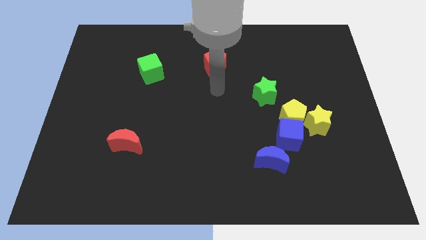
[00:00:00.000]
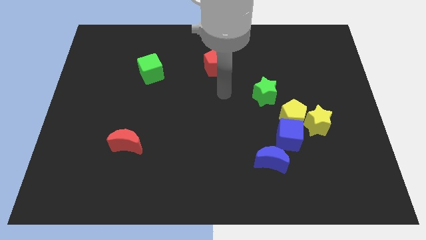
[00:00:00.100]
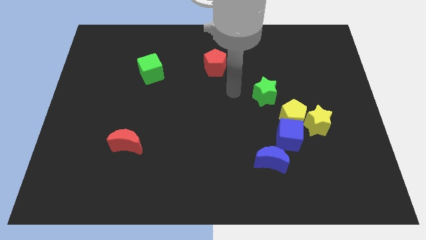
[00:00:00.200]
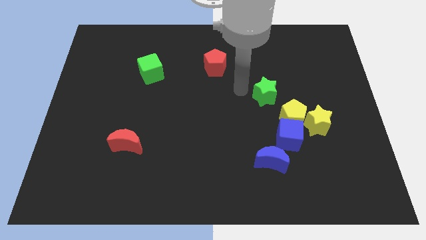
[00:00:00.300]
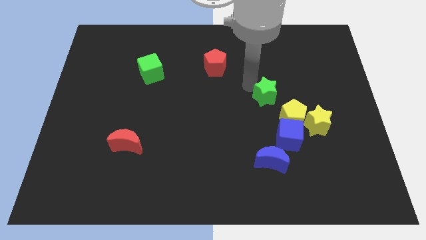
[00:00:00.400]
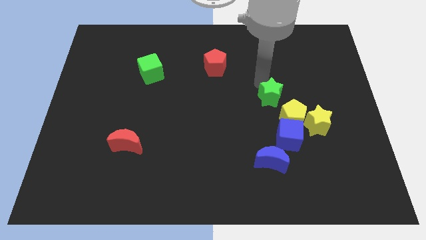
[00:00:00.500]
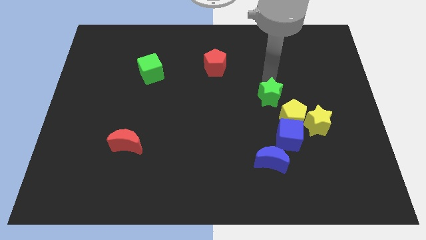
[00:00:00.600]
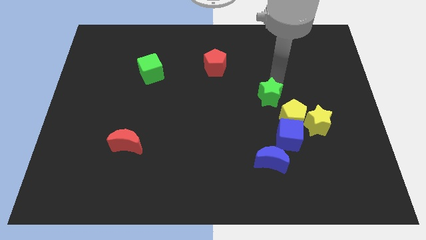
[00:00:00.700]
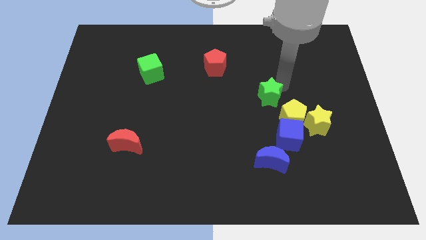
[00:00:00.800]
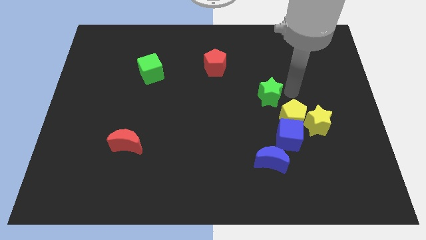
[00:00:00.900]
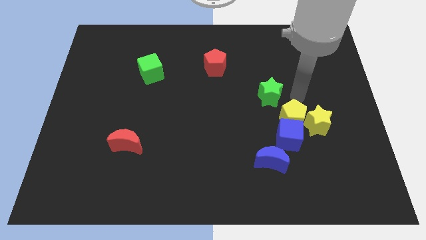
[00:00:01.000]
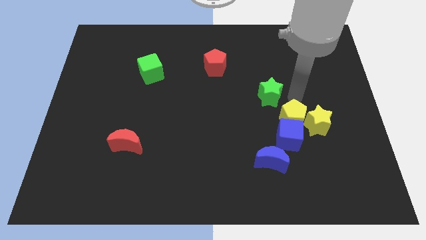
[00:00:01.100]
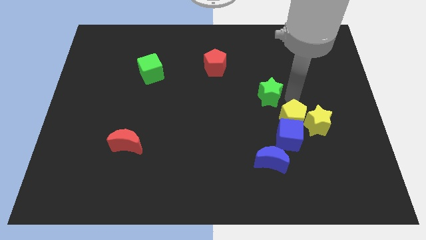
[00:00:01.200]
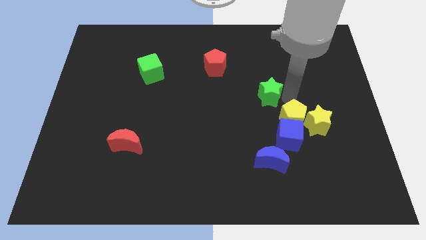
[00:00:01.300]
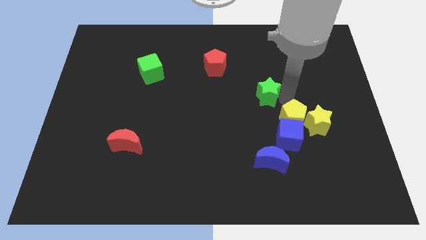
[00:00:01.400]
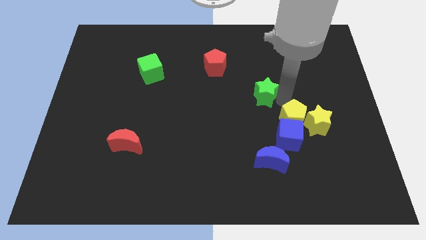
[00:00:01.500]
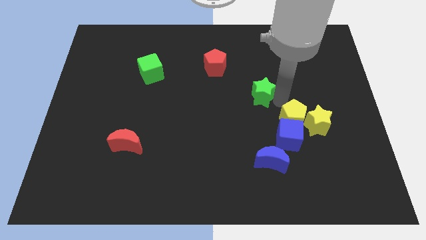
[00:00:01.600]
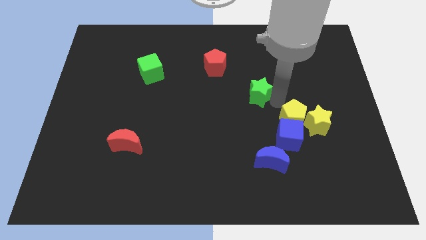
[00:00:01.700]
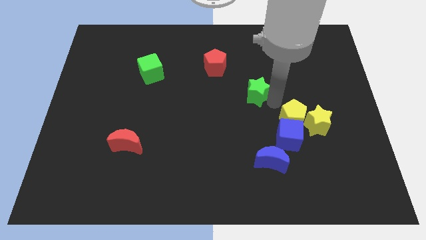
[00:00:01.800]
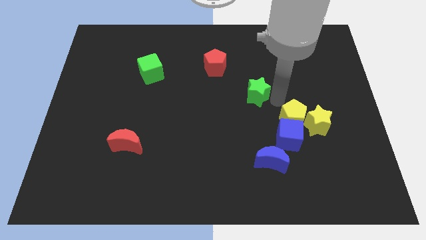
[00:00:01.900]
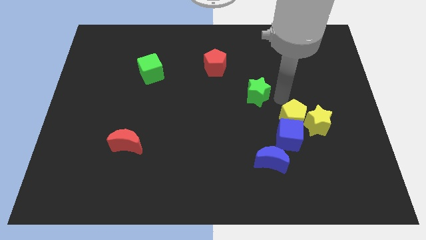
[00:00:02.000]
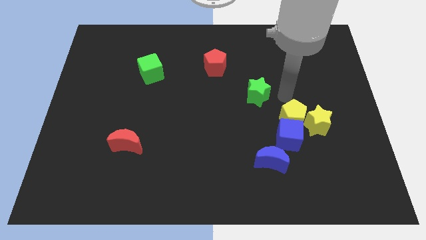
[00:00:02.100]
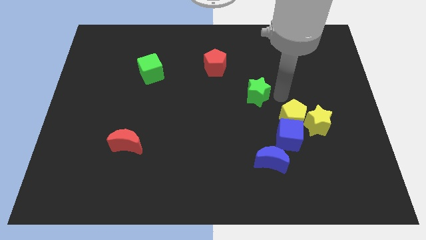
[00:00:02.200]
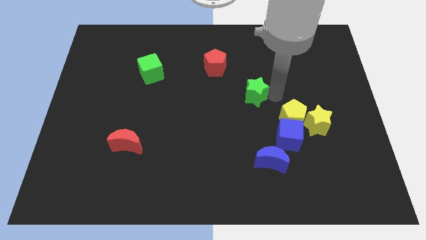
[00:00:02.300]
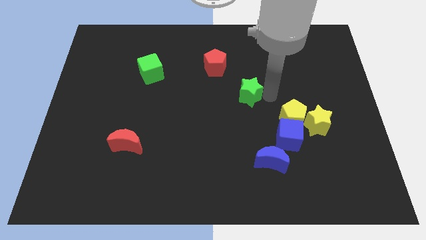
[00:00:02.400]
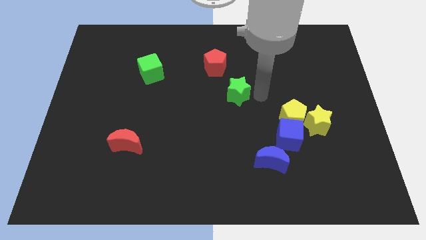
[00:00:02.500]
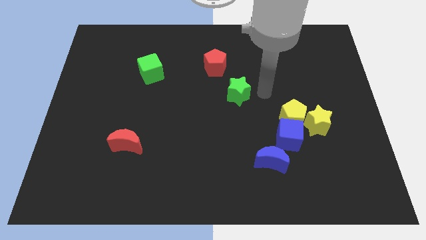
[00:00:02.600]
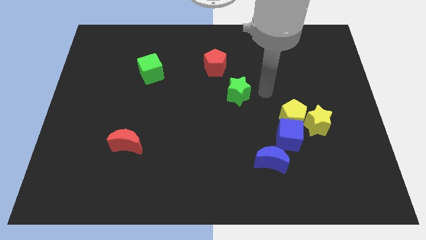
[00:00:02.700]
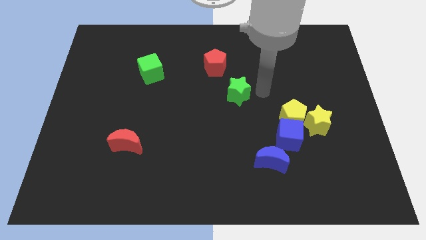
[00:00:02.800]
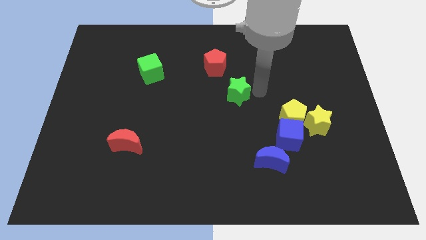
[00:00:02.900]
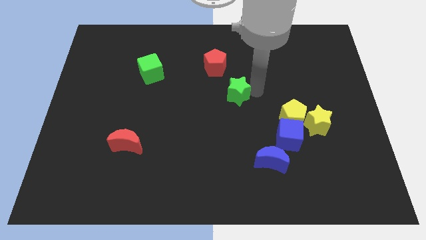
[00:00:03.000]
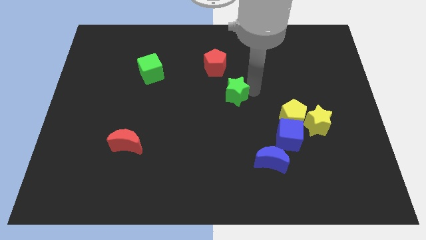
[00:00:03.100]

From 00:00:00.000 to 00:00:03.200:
push the green star a bit to the left

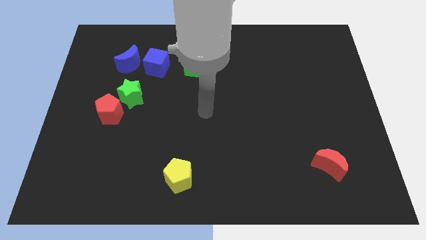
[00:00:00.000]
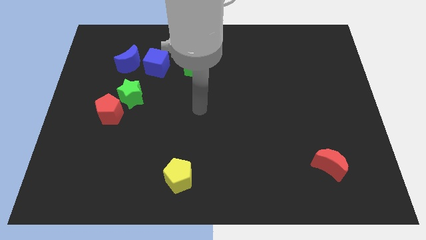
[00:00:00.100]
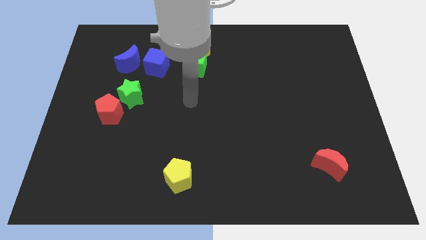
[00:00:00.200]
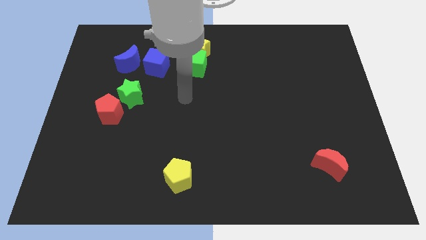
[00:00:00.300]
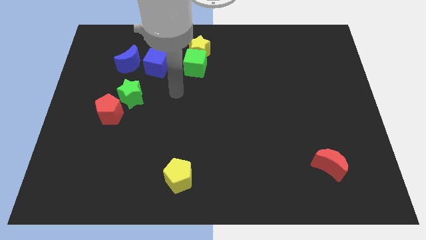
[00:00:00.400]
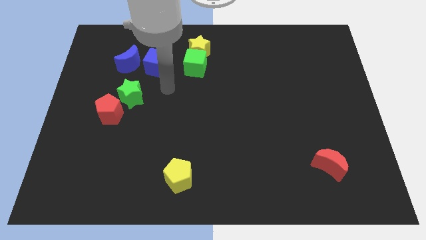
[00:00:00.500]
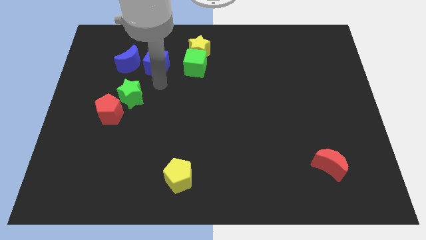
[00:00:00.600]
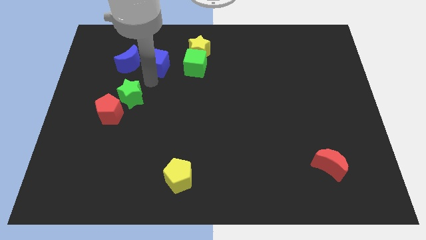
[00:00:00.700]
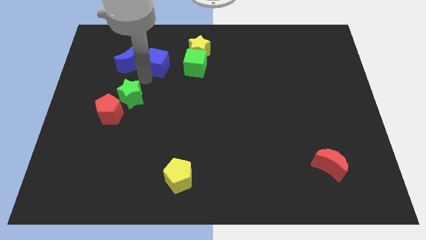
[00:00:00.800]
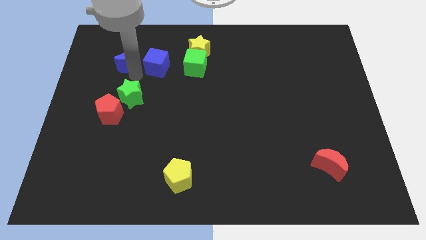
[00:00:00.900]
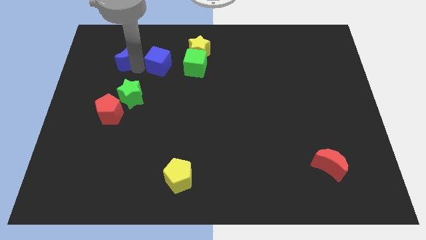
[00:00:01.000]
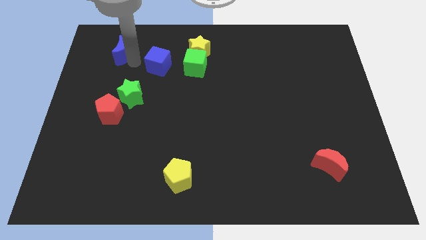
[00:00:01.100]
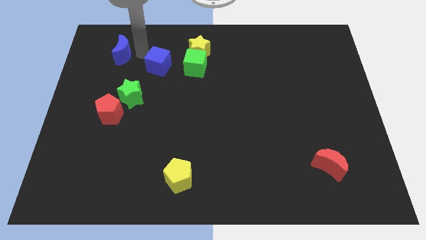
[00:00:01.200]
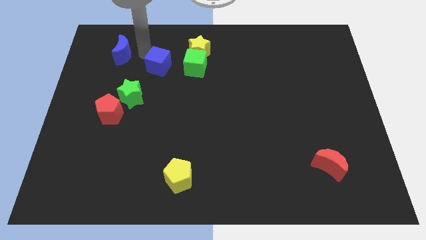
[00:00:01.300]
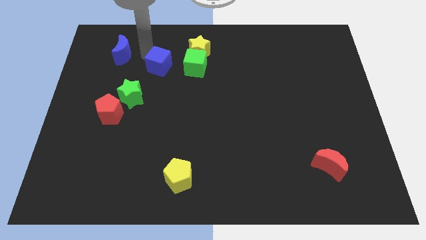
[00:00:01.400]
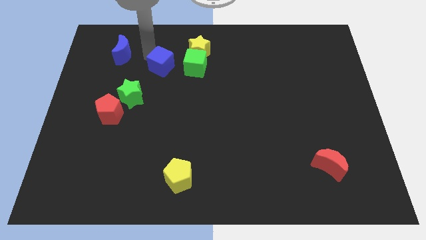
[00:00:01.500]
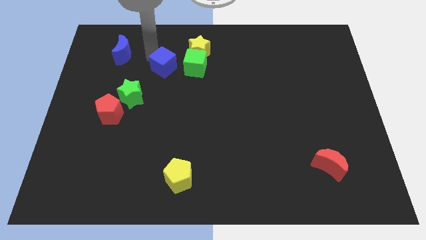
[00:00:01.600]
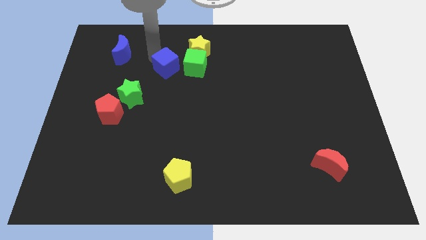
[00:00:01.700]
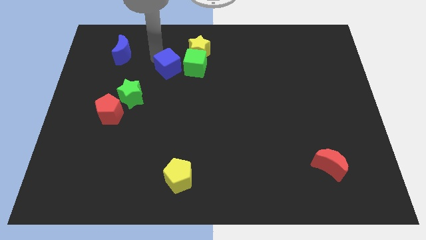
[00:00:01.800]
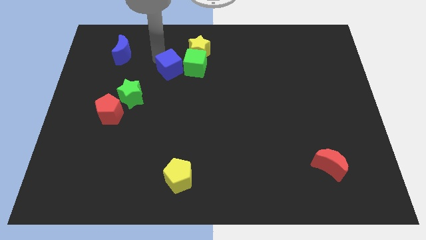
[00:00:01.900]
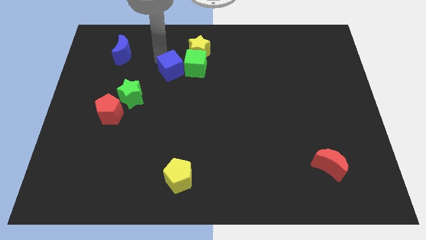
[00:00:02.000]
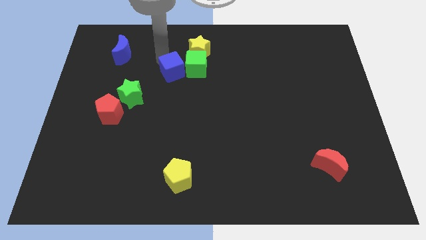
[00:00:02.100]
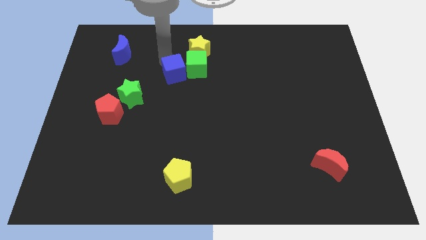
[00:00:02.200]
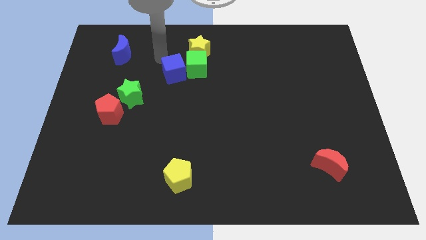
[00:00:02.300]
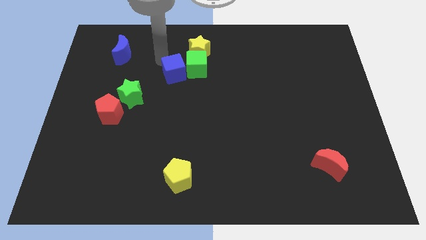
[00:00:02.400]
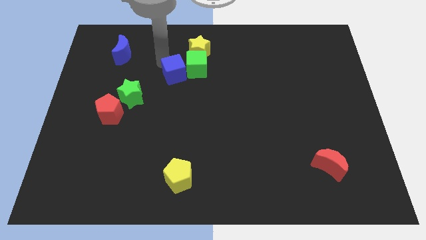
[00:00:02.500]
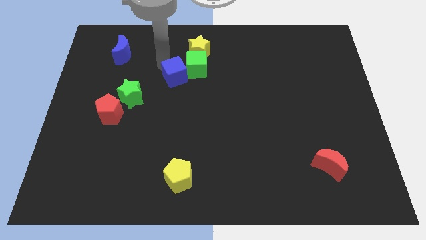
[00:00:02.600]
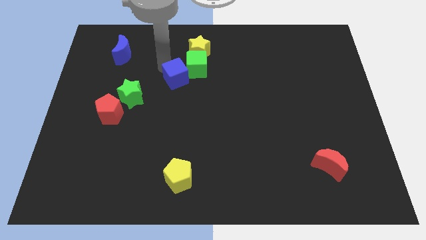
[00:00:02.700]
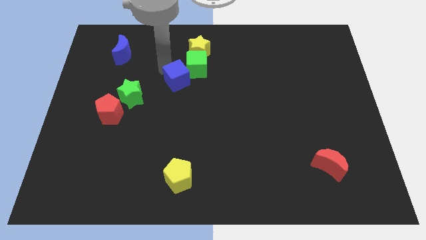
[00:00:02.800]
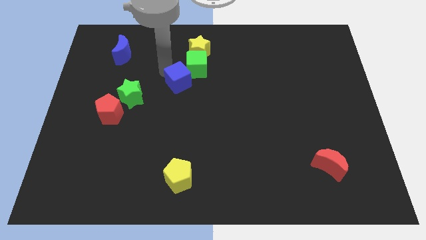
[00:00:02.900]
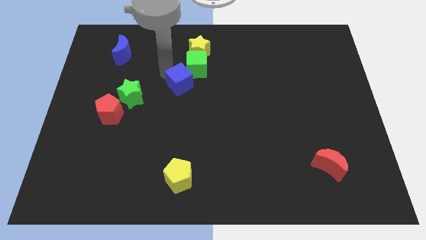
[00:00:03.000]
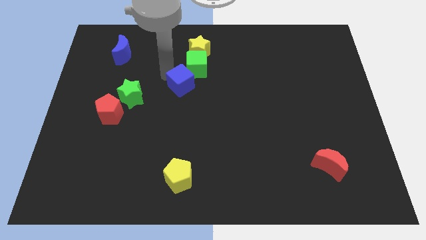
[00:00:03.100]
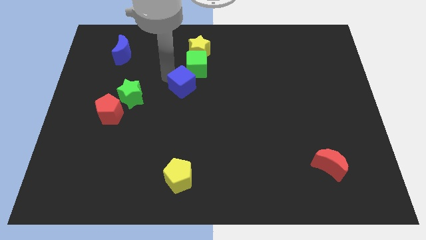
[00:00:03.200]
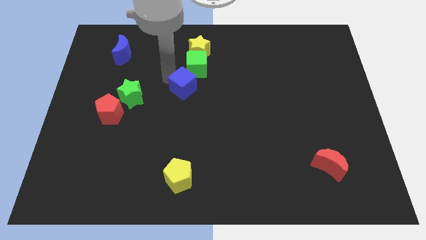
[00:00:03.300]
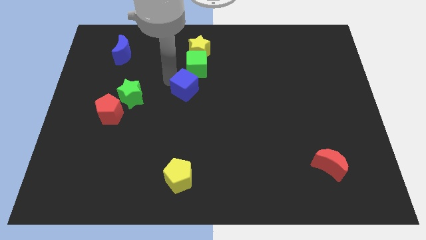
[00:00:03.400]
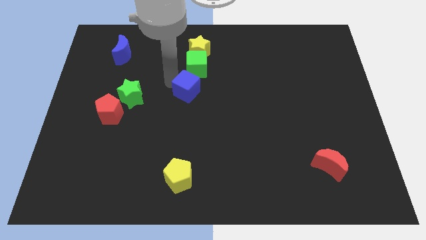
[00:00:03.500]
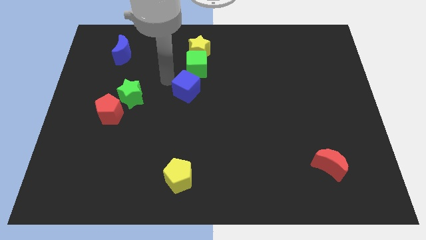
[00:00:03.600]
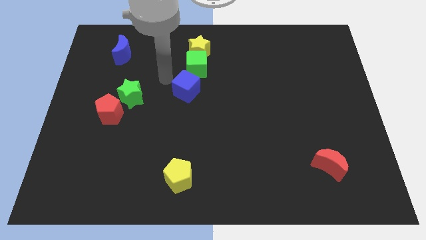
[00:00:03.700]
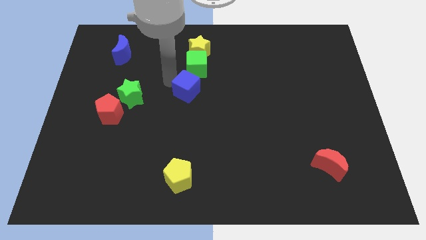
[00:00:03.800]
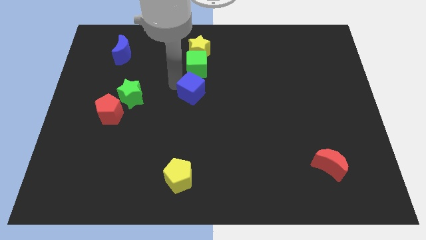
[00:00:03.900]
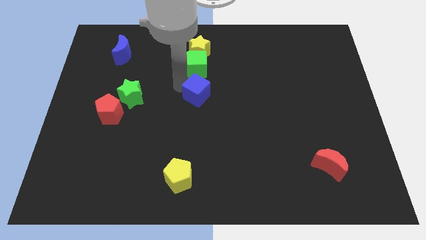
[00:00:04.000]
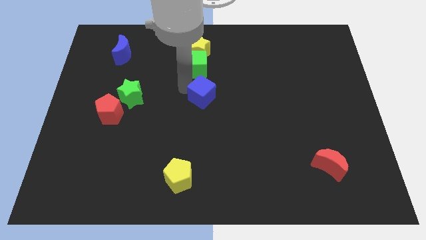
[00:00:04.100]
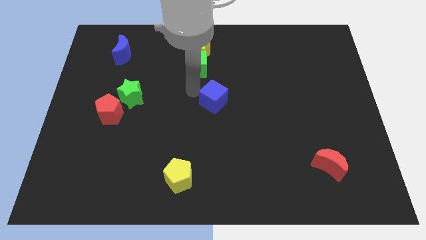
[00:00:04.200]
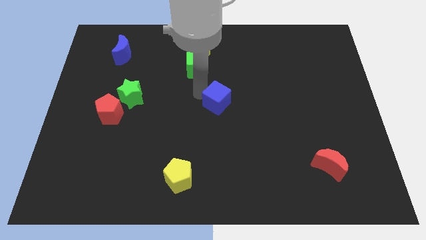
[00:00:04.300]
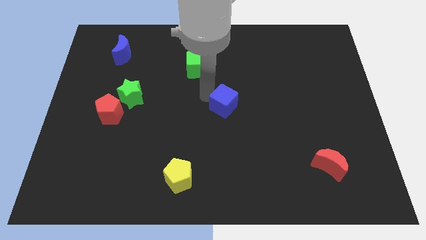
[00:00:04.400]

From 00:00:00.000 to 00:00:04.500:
move the blue cube downwards and right
